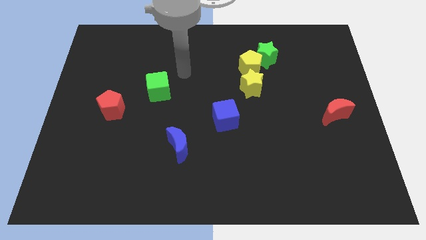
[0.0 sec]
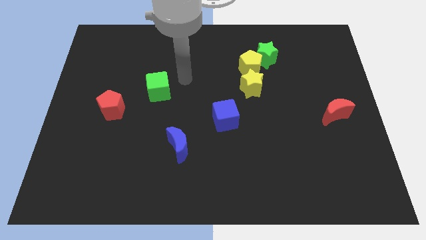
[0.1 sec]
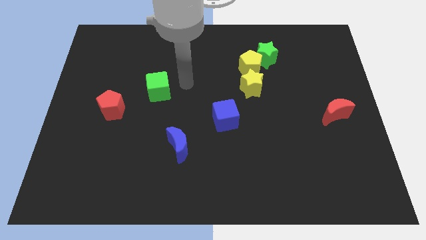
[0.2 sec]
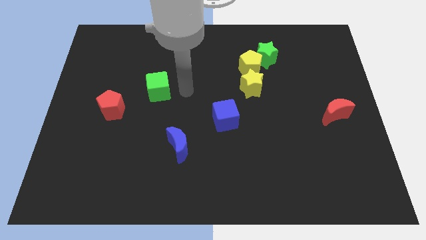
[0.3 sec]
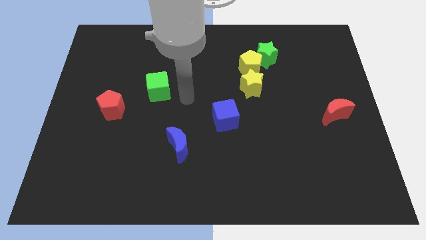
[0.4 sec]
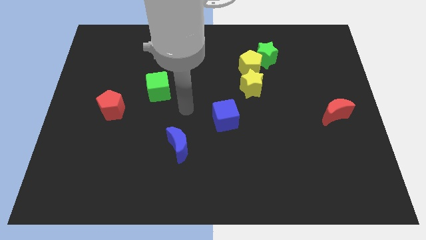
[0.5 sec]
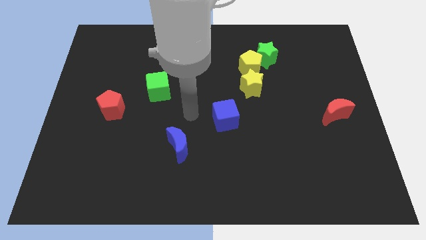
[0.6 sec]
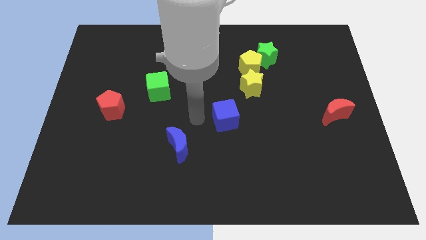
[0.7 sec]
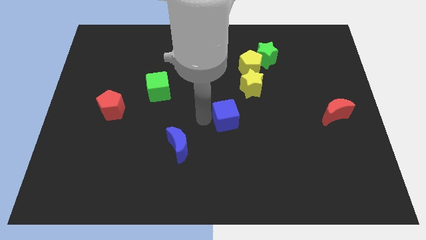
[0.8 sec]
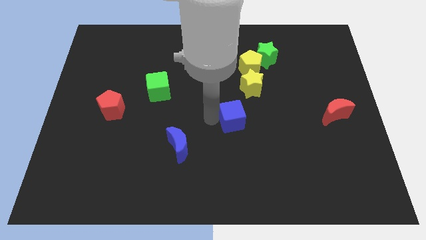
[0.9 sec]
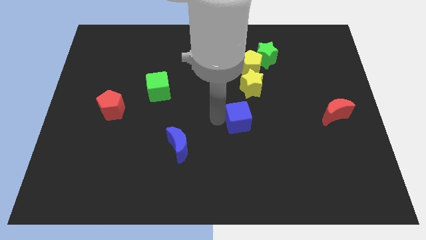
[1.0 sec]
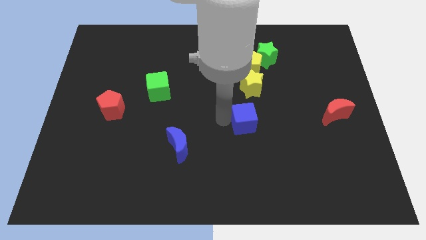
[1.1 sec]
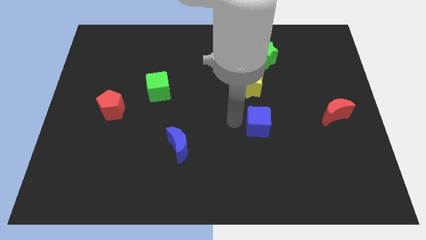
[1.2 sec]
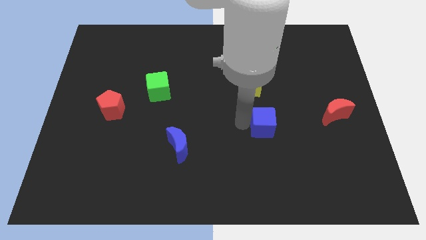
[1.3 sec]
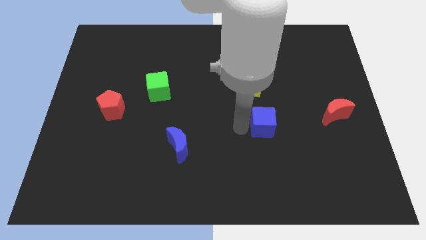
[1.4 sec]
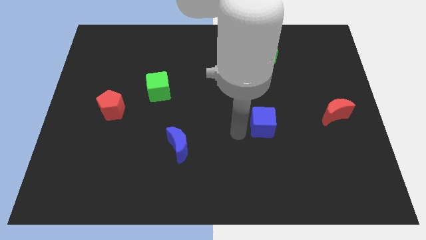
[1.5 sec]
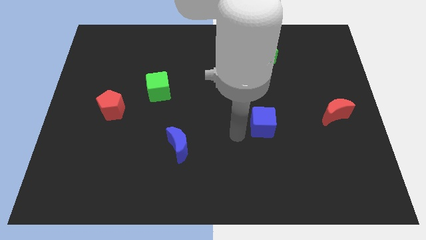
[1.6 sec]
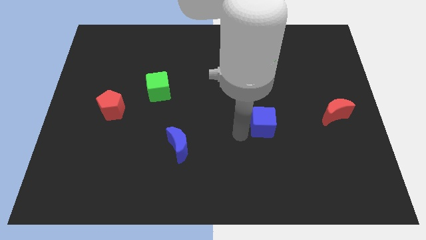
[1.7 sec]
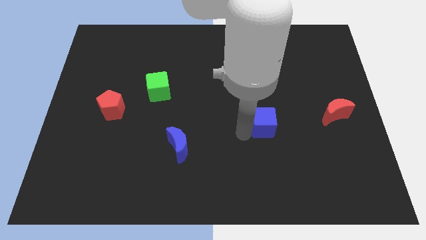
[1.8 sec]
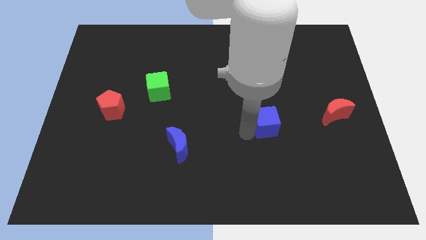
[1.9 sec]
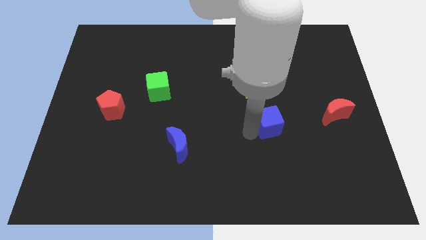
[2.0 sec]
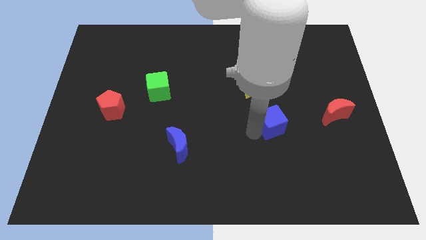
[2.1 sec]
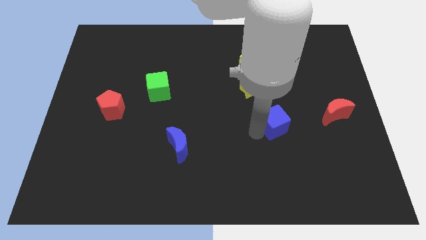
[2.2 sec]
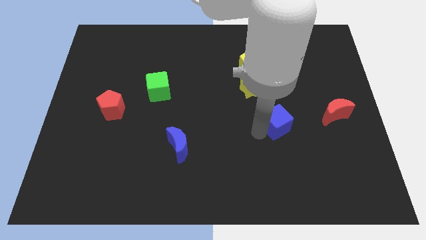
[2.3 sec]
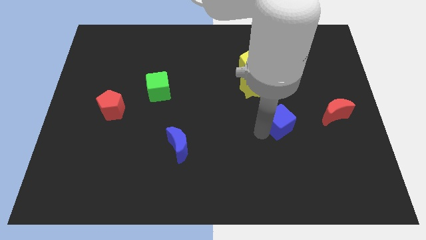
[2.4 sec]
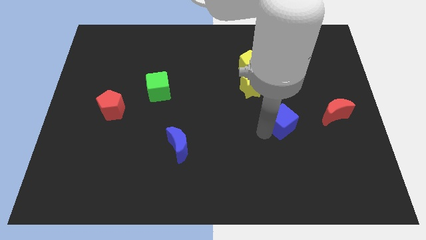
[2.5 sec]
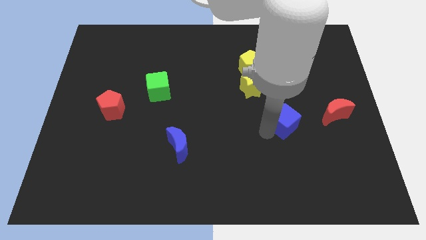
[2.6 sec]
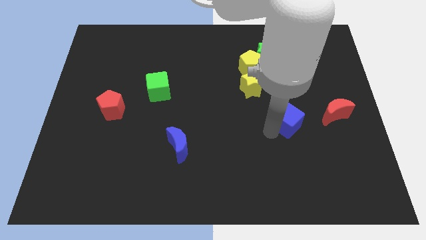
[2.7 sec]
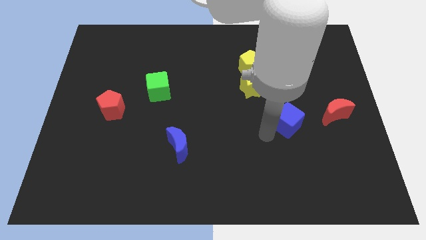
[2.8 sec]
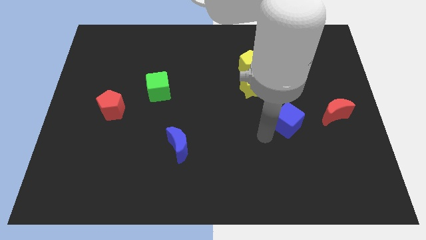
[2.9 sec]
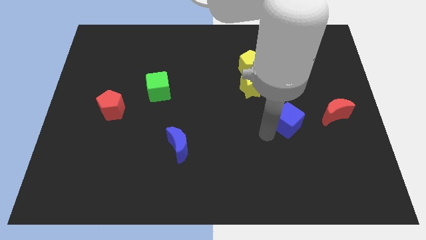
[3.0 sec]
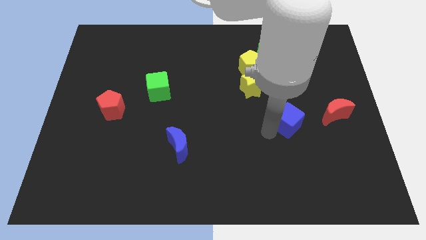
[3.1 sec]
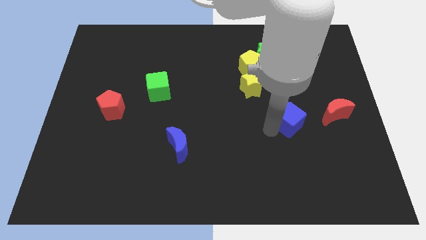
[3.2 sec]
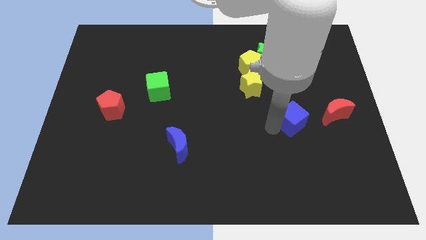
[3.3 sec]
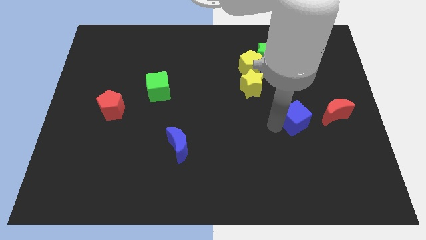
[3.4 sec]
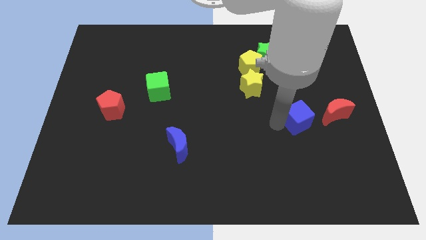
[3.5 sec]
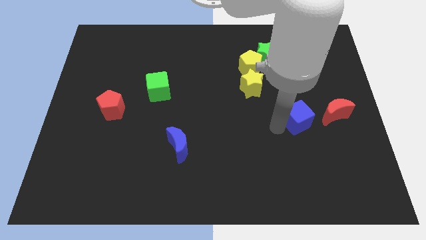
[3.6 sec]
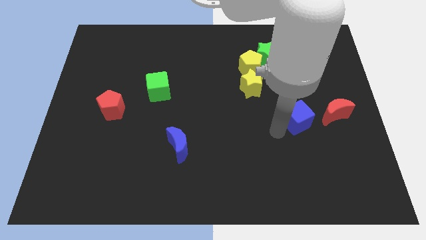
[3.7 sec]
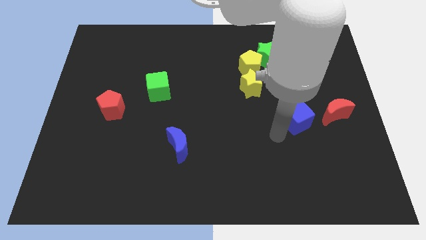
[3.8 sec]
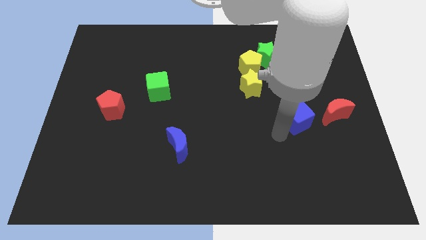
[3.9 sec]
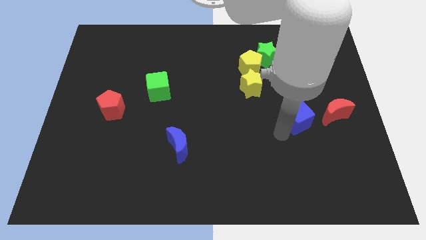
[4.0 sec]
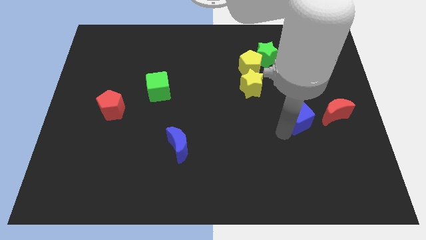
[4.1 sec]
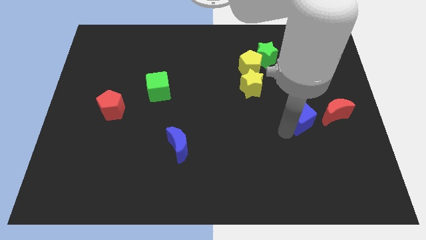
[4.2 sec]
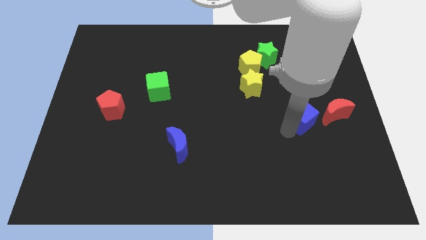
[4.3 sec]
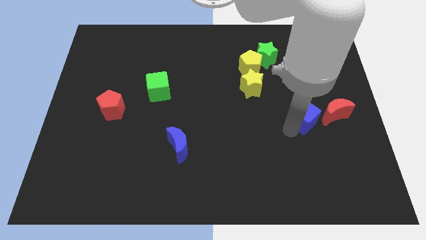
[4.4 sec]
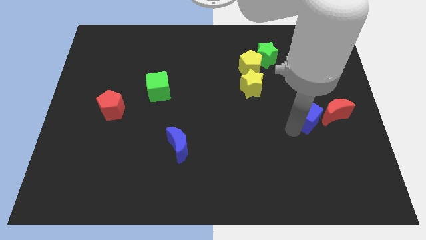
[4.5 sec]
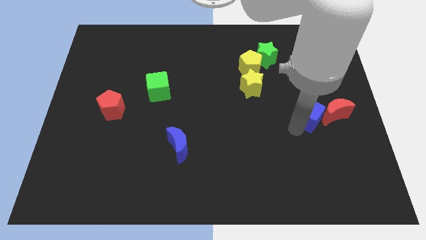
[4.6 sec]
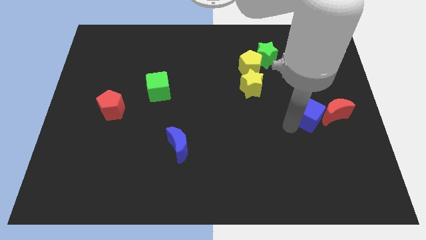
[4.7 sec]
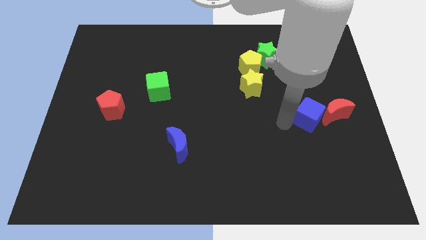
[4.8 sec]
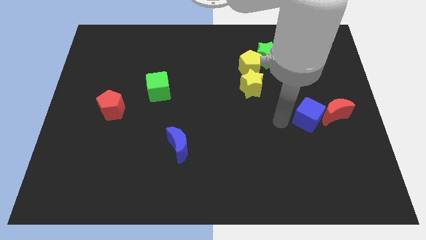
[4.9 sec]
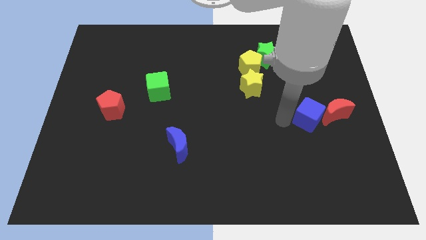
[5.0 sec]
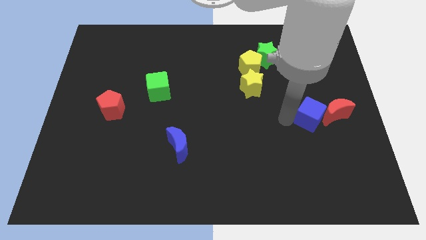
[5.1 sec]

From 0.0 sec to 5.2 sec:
move the blue cube towards the red moon

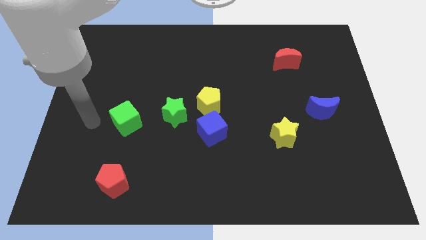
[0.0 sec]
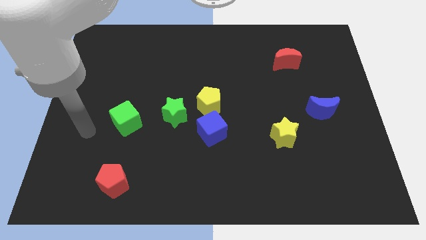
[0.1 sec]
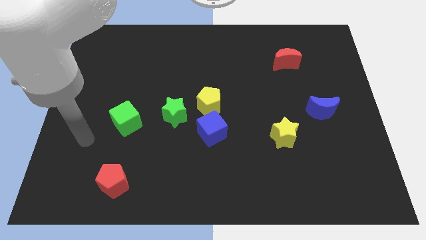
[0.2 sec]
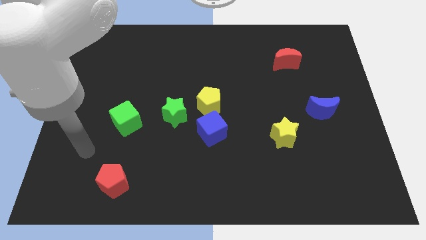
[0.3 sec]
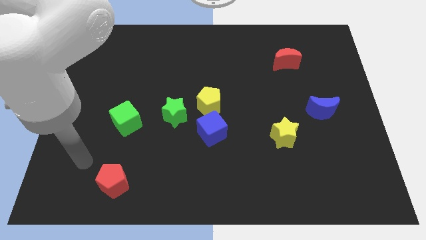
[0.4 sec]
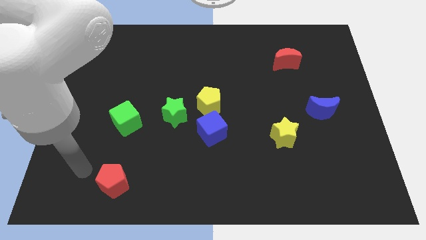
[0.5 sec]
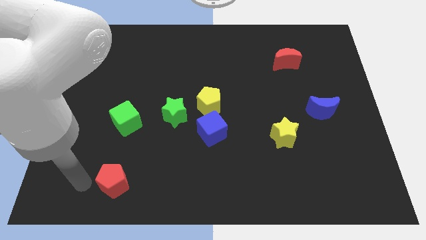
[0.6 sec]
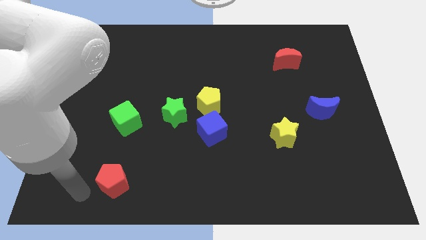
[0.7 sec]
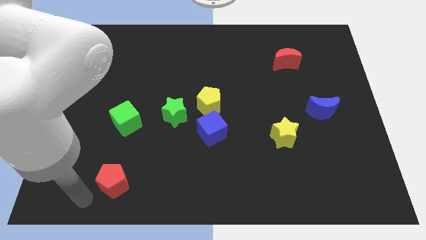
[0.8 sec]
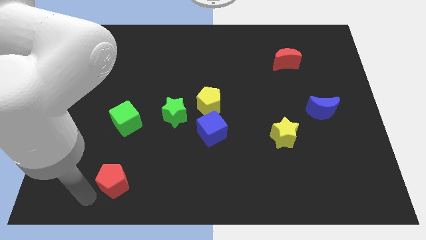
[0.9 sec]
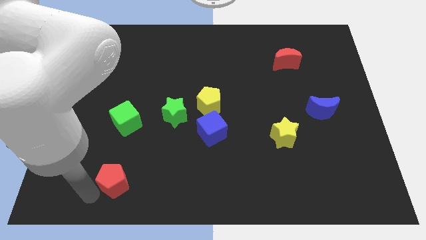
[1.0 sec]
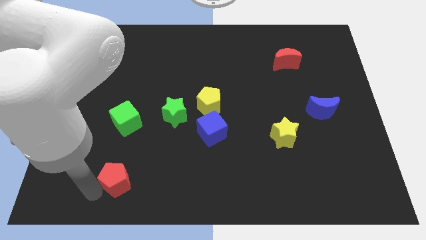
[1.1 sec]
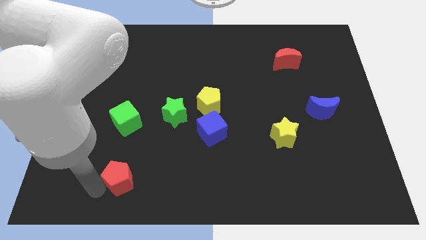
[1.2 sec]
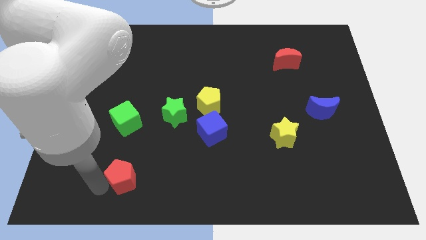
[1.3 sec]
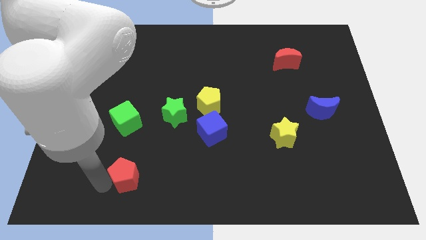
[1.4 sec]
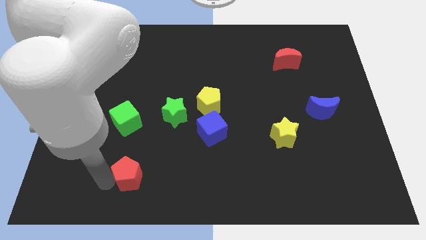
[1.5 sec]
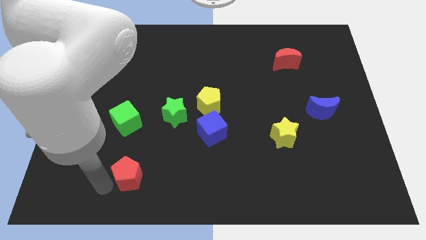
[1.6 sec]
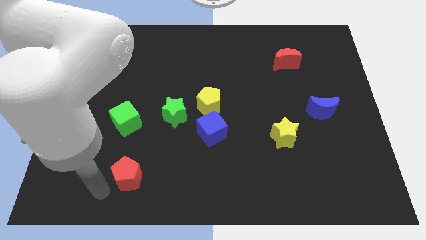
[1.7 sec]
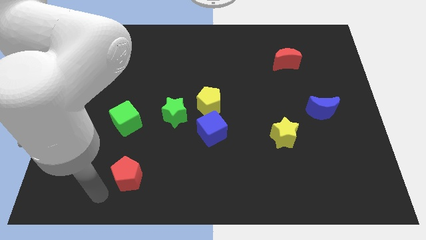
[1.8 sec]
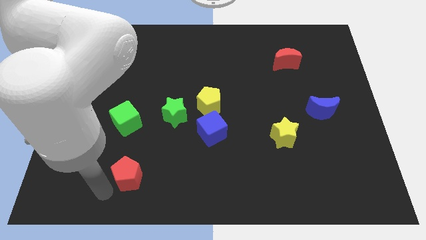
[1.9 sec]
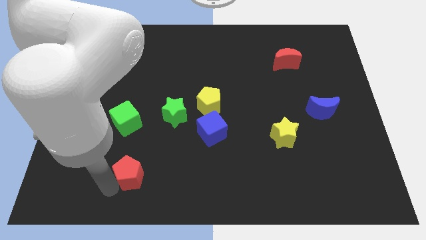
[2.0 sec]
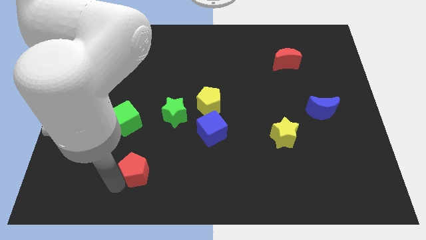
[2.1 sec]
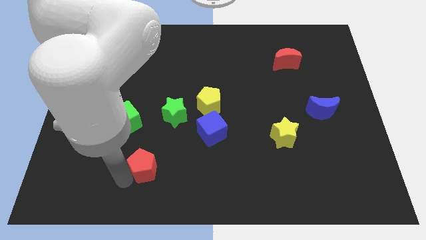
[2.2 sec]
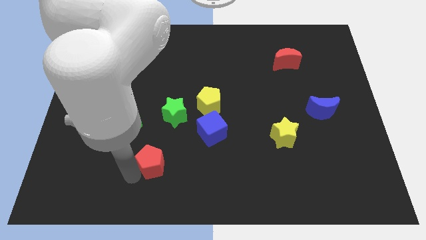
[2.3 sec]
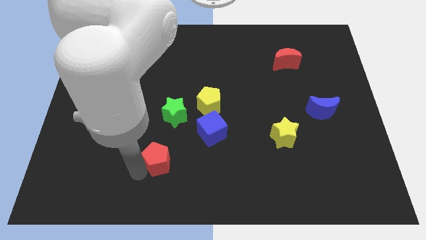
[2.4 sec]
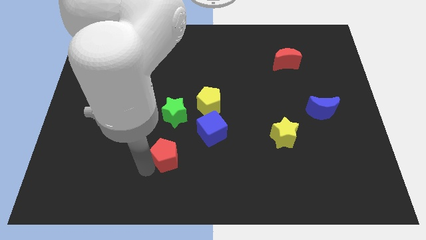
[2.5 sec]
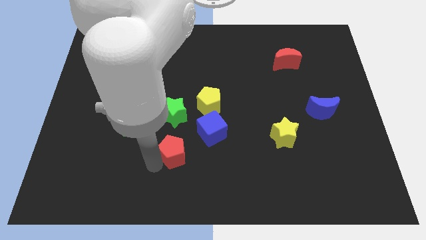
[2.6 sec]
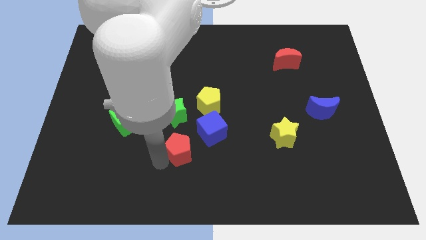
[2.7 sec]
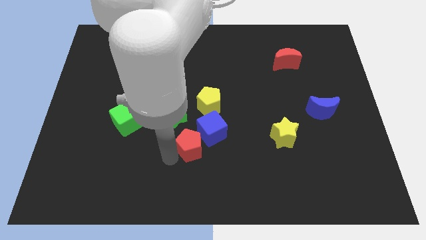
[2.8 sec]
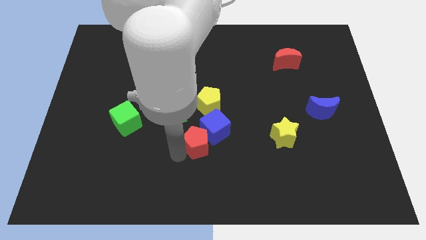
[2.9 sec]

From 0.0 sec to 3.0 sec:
move the red pentagon next to the blue cube
